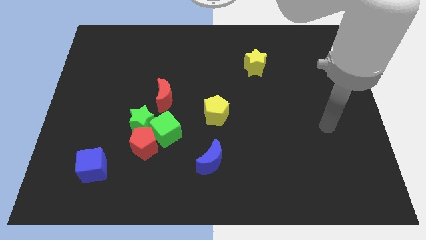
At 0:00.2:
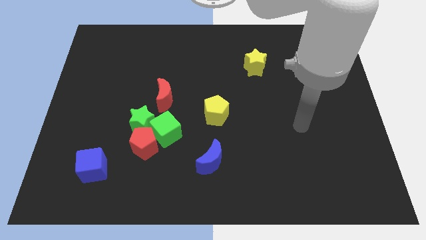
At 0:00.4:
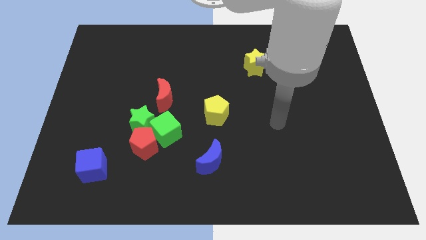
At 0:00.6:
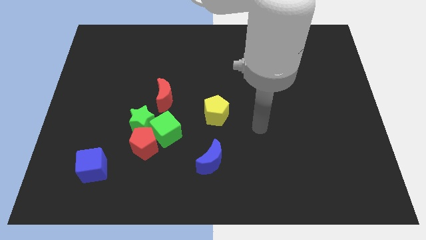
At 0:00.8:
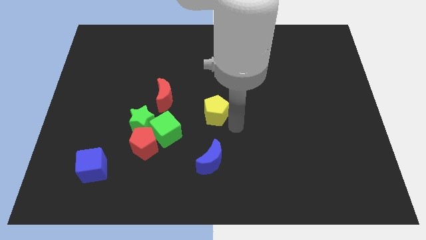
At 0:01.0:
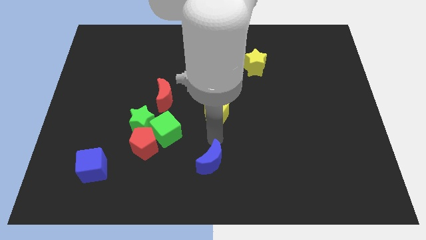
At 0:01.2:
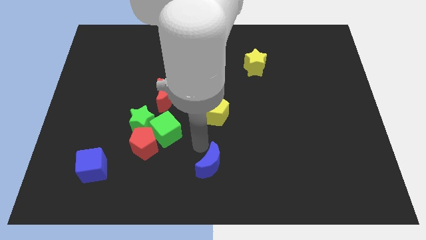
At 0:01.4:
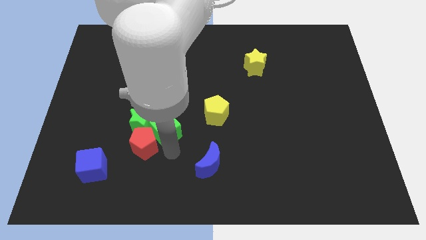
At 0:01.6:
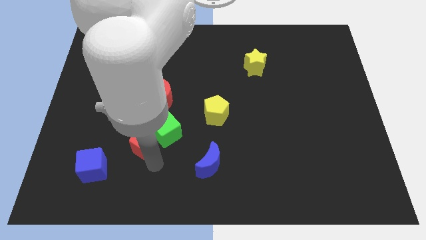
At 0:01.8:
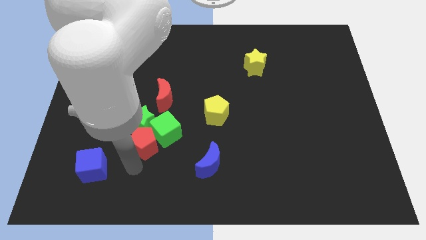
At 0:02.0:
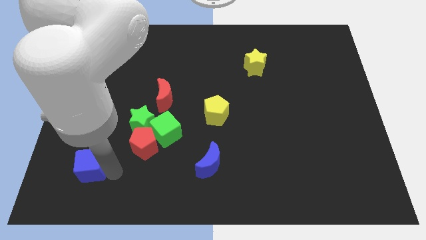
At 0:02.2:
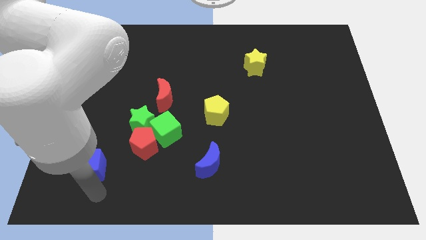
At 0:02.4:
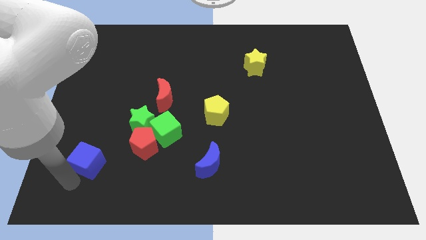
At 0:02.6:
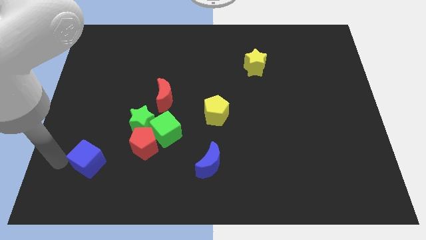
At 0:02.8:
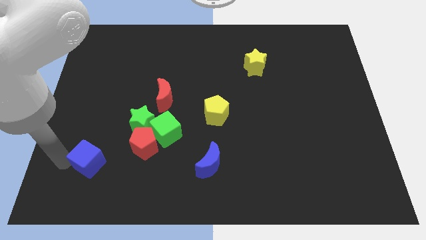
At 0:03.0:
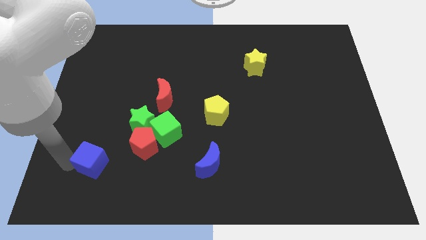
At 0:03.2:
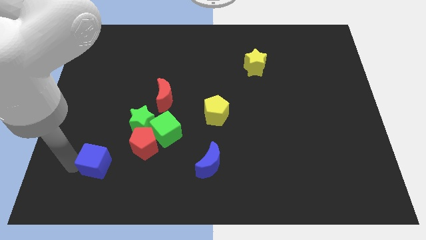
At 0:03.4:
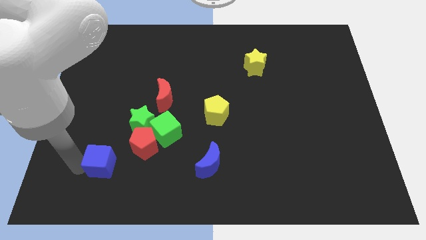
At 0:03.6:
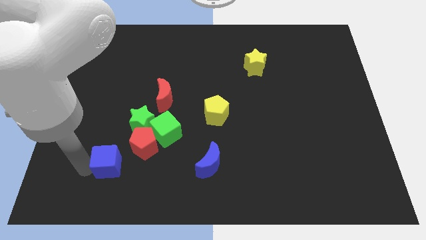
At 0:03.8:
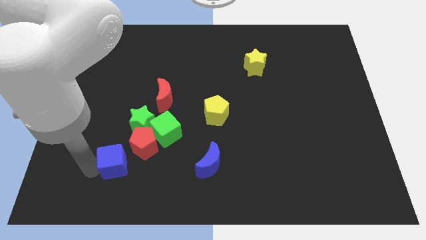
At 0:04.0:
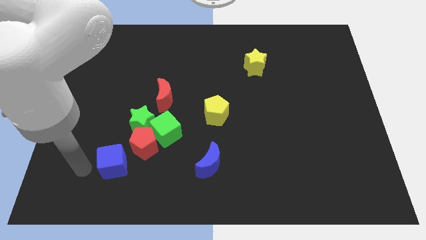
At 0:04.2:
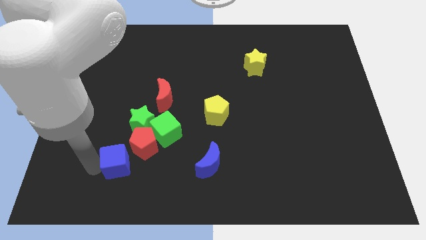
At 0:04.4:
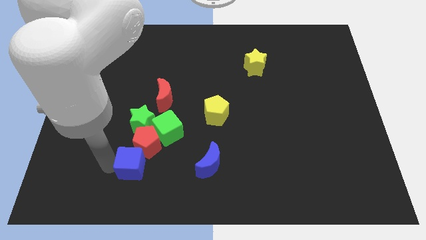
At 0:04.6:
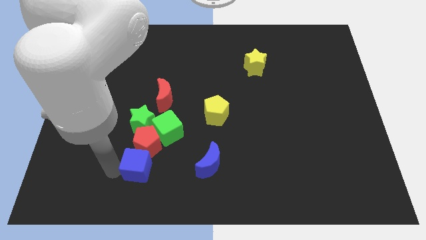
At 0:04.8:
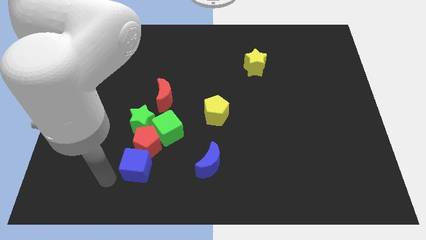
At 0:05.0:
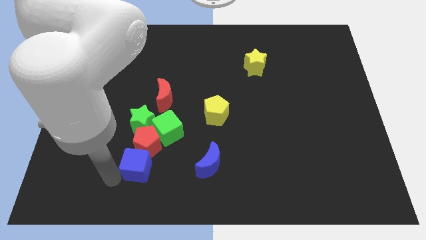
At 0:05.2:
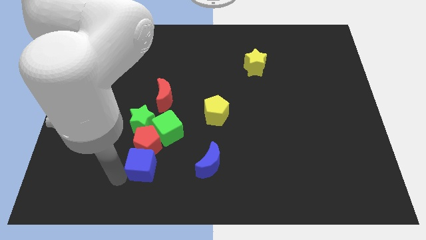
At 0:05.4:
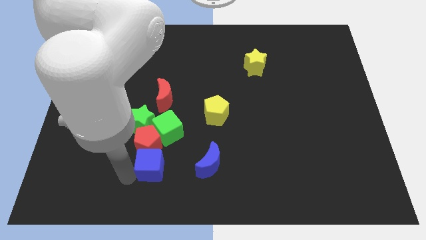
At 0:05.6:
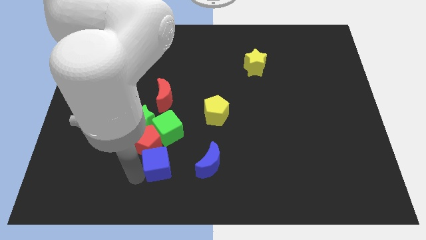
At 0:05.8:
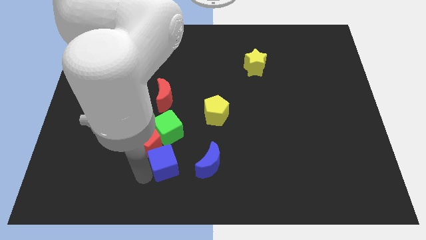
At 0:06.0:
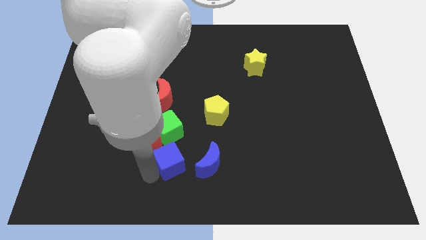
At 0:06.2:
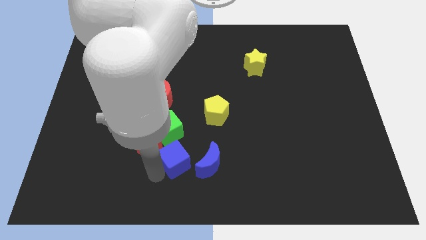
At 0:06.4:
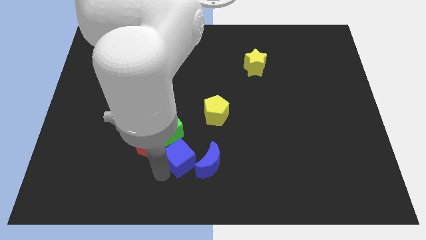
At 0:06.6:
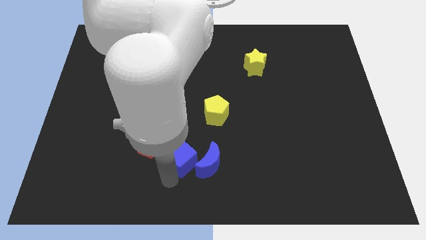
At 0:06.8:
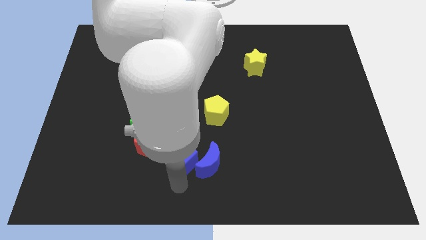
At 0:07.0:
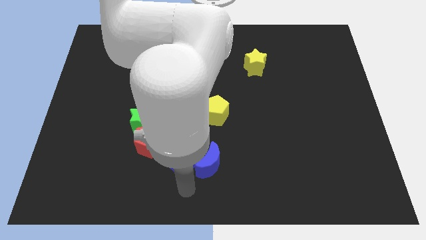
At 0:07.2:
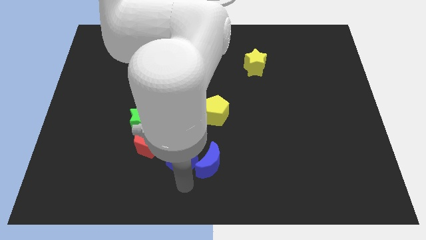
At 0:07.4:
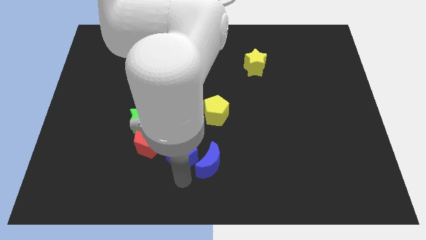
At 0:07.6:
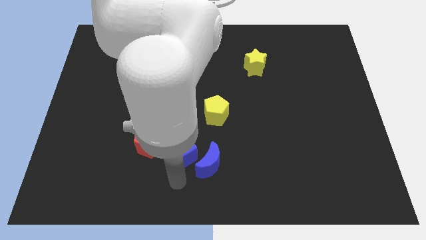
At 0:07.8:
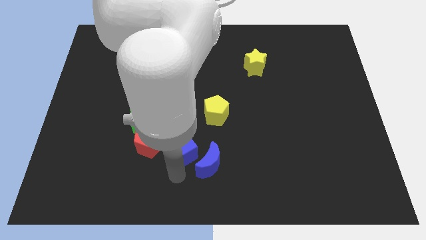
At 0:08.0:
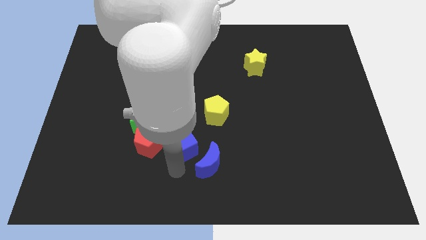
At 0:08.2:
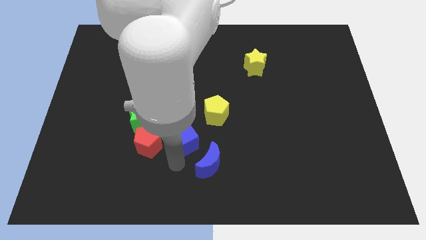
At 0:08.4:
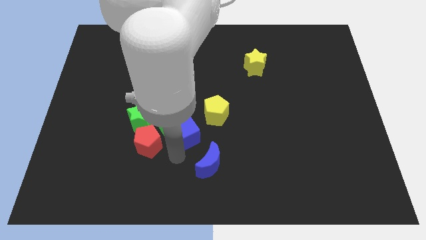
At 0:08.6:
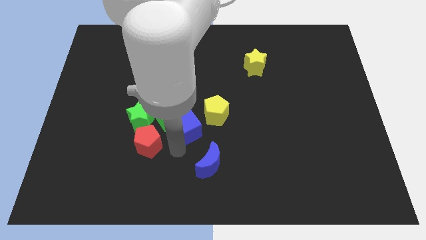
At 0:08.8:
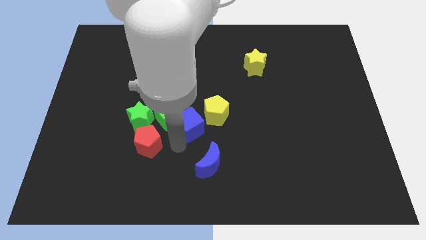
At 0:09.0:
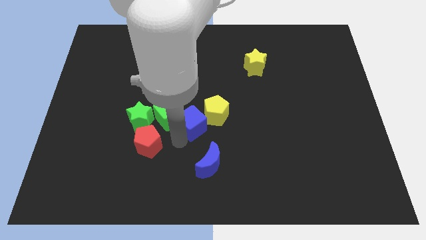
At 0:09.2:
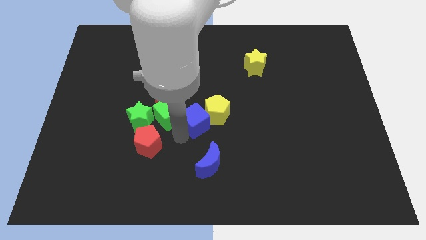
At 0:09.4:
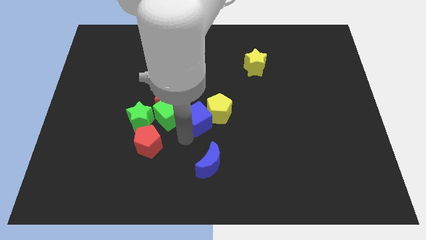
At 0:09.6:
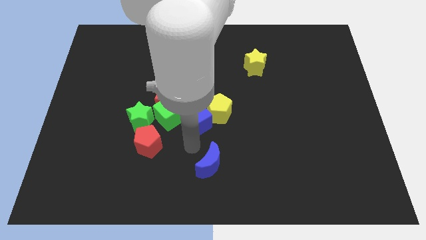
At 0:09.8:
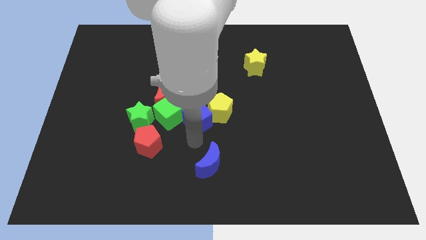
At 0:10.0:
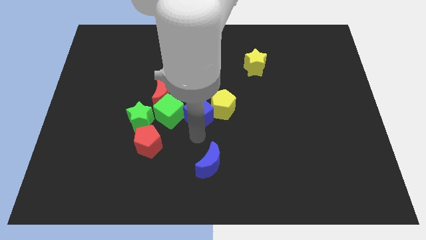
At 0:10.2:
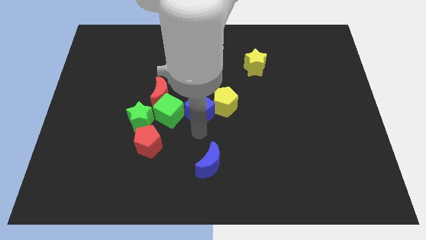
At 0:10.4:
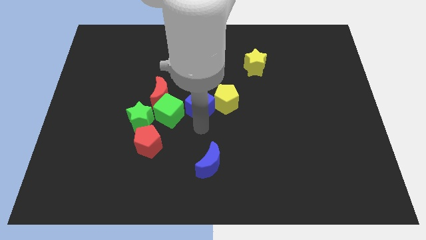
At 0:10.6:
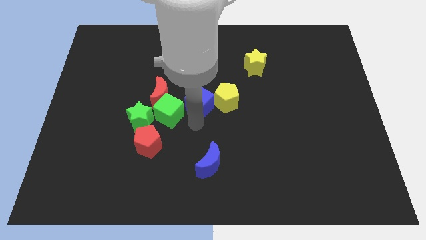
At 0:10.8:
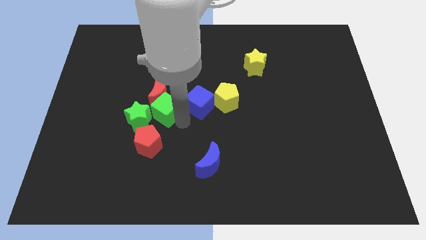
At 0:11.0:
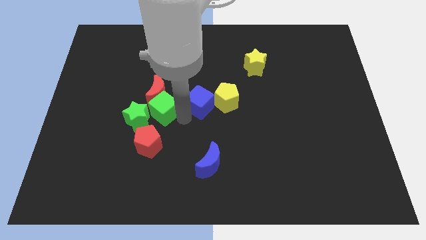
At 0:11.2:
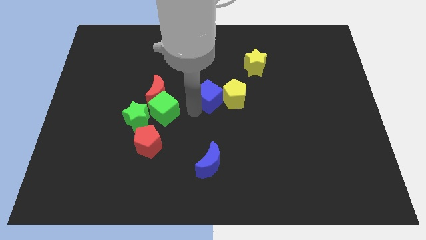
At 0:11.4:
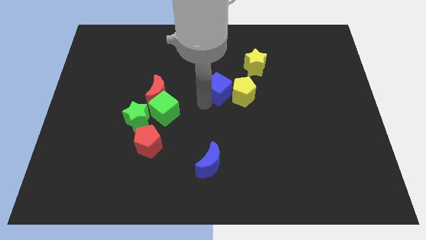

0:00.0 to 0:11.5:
push the blue cube diagonally down and to the left of the yellow star

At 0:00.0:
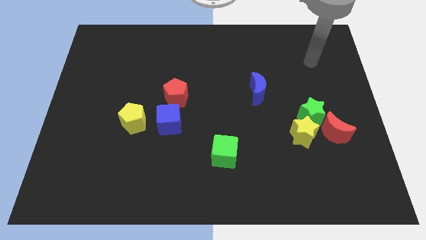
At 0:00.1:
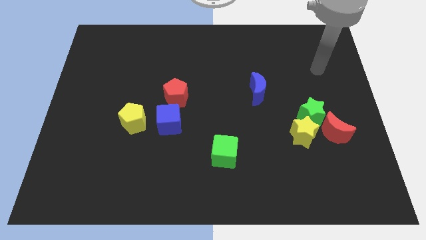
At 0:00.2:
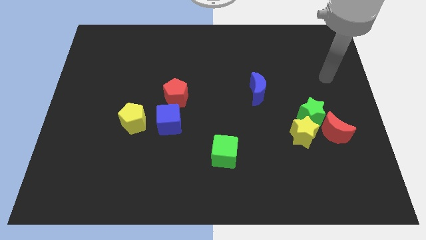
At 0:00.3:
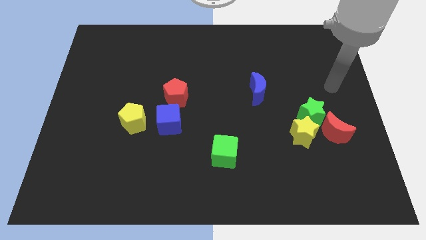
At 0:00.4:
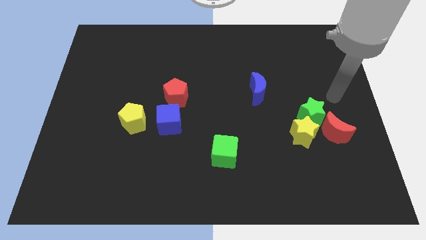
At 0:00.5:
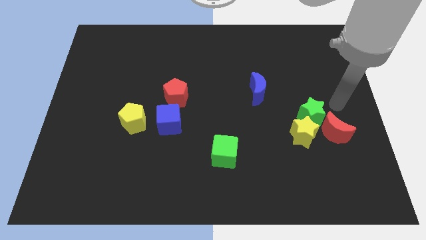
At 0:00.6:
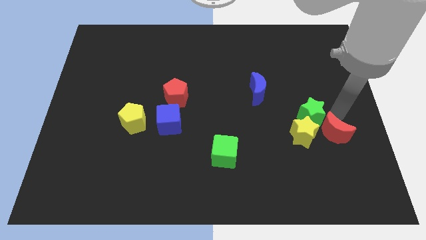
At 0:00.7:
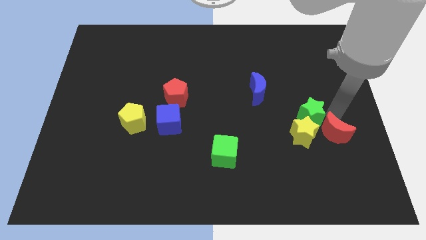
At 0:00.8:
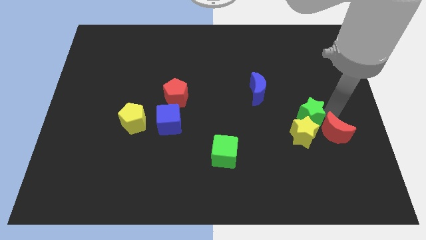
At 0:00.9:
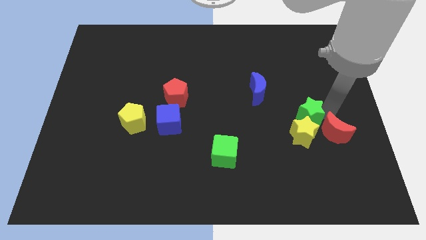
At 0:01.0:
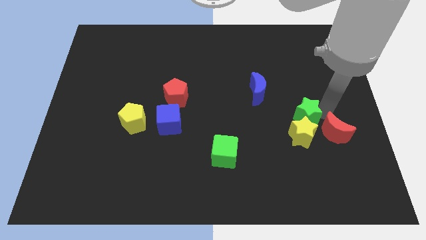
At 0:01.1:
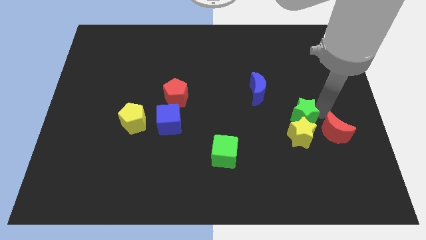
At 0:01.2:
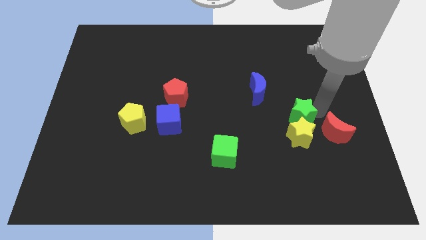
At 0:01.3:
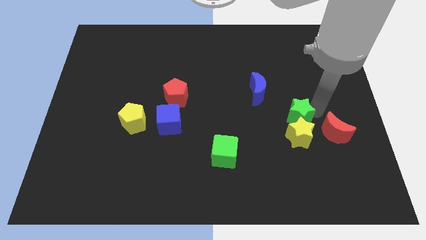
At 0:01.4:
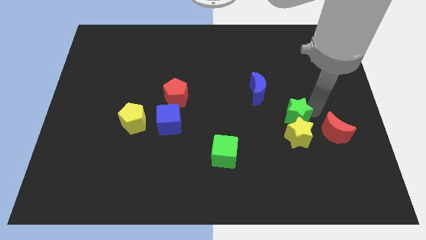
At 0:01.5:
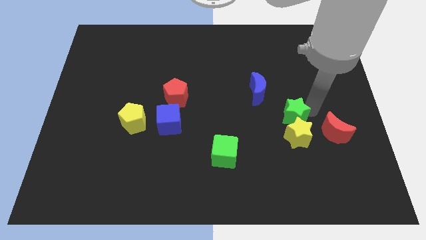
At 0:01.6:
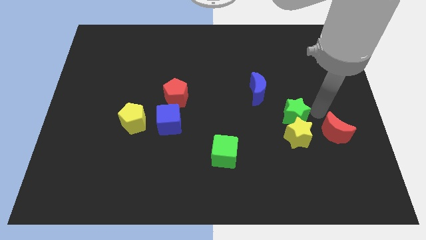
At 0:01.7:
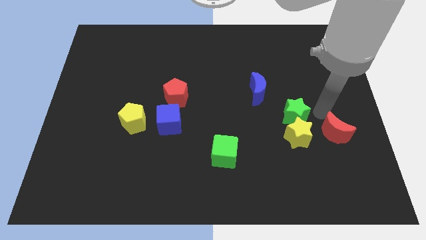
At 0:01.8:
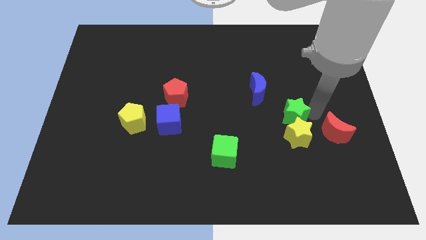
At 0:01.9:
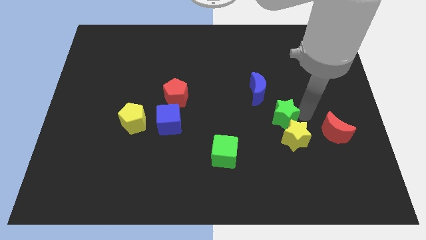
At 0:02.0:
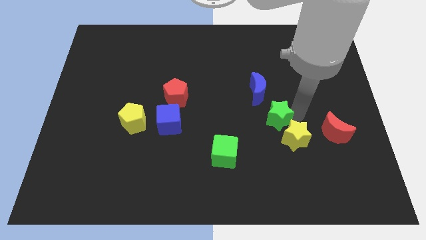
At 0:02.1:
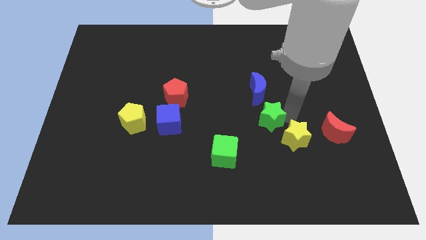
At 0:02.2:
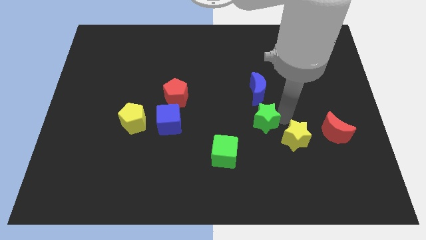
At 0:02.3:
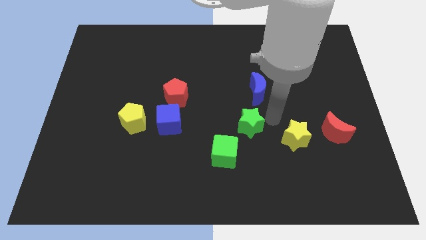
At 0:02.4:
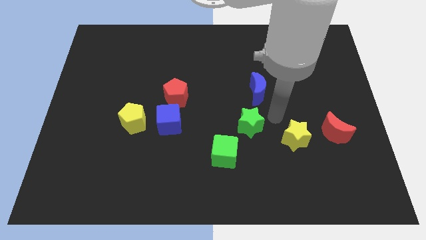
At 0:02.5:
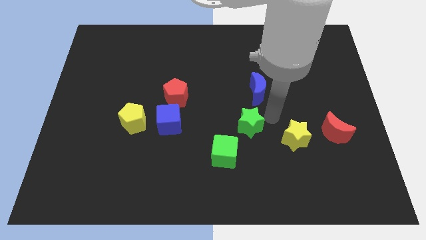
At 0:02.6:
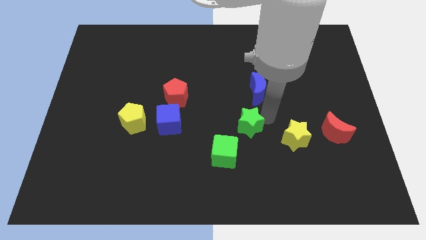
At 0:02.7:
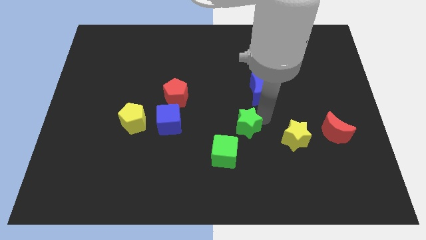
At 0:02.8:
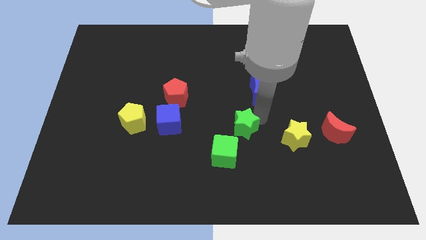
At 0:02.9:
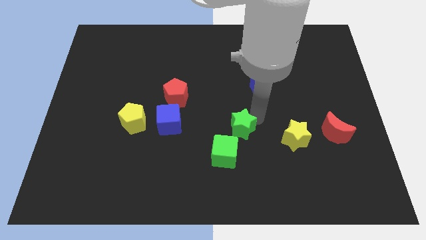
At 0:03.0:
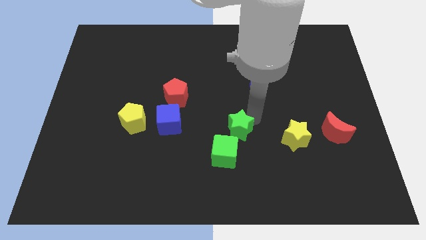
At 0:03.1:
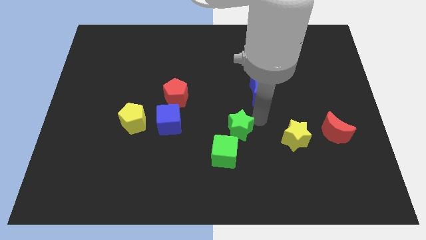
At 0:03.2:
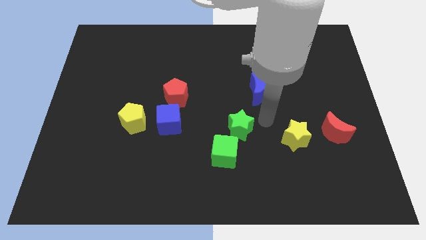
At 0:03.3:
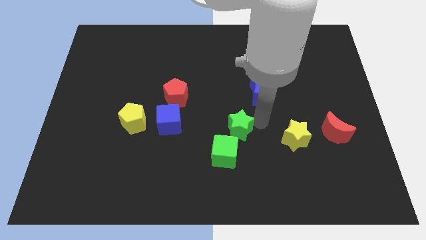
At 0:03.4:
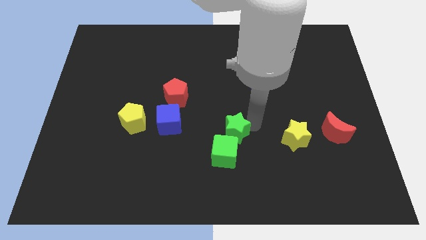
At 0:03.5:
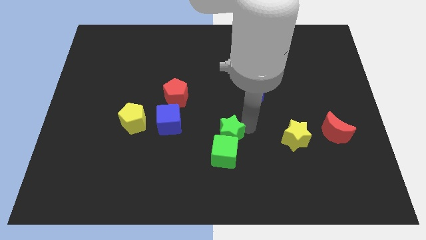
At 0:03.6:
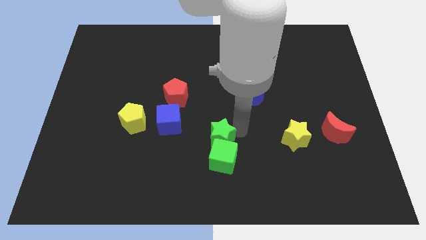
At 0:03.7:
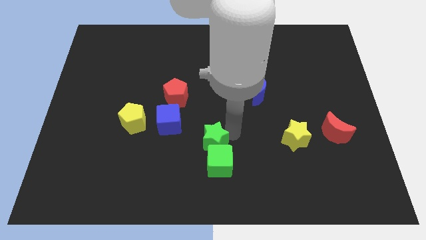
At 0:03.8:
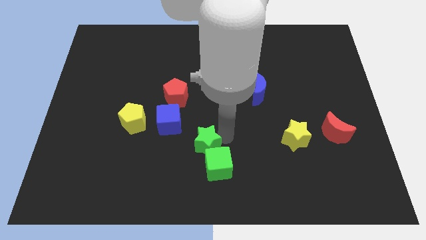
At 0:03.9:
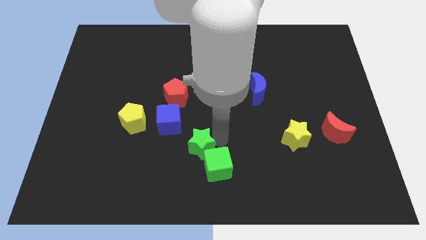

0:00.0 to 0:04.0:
push the green star to the left of the green cube
